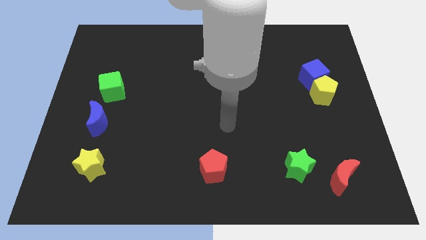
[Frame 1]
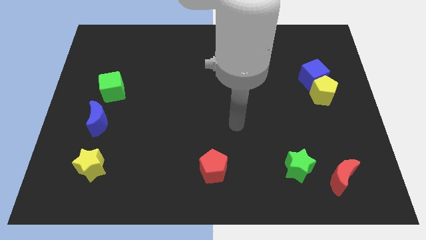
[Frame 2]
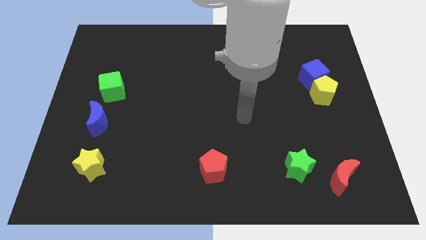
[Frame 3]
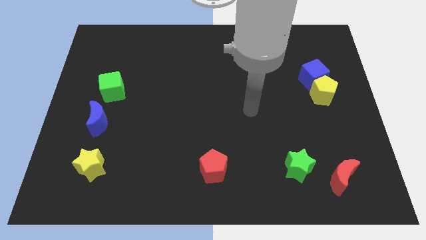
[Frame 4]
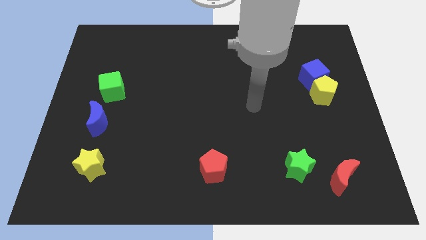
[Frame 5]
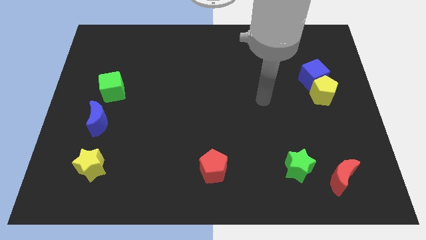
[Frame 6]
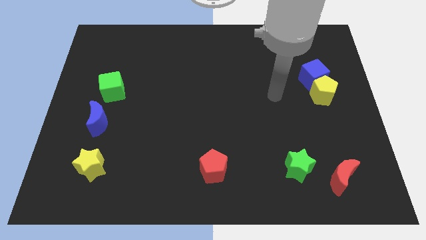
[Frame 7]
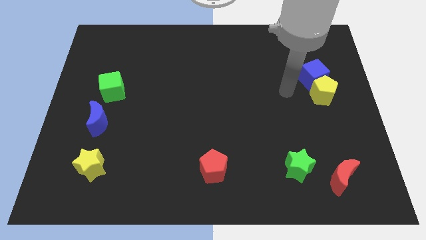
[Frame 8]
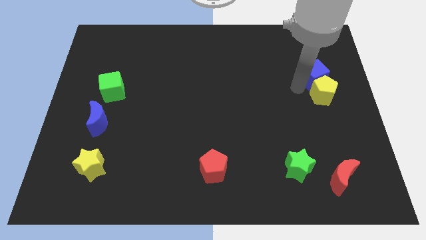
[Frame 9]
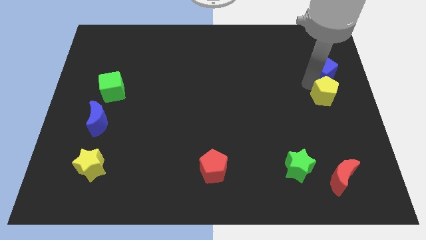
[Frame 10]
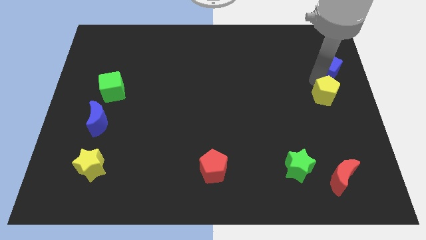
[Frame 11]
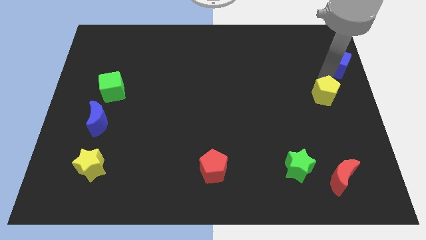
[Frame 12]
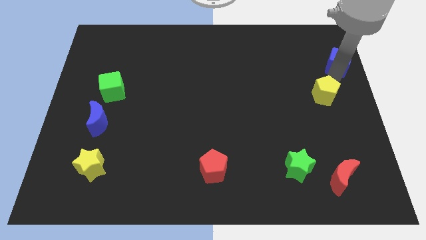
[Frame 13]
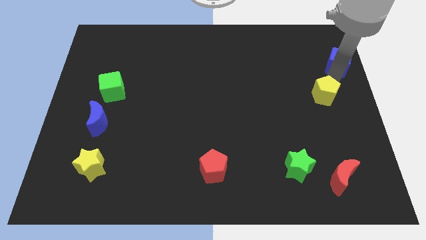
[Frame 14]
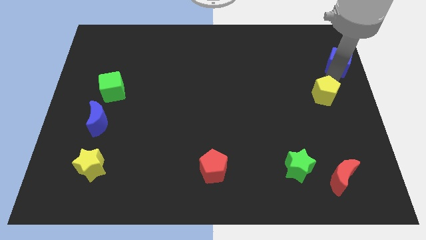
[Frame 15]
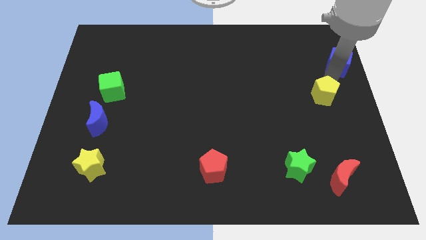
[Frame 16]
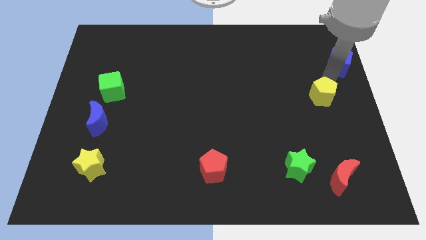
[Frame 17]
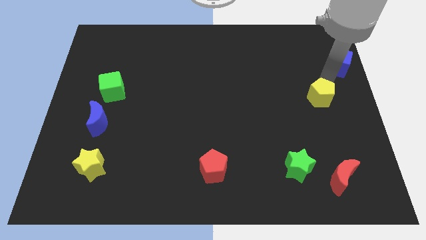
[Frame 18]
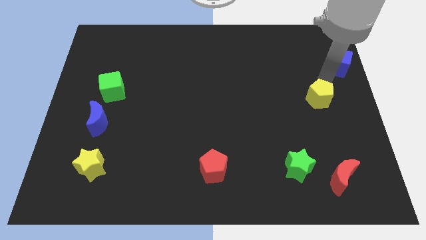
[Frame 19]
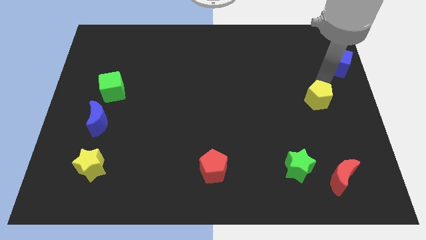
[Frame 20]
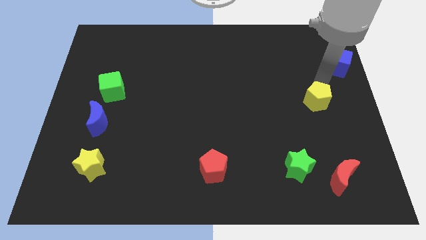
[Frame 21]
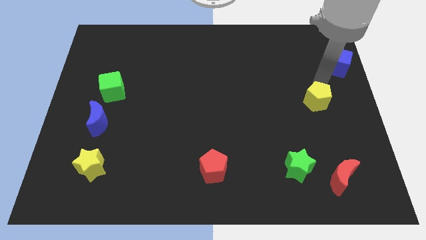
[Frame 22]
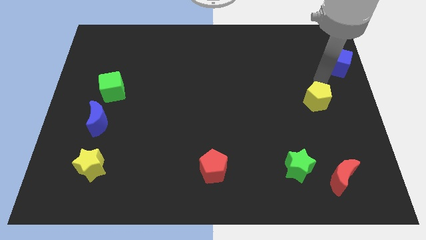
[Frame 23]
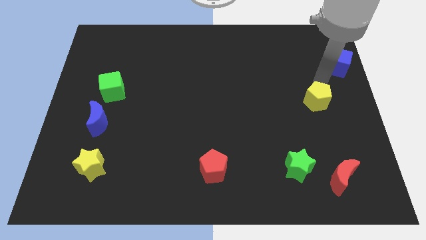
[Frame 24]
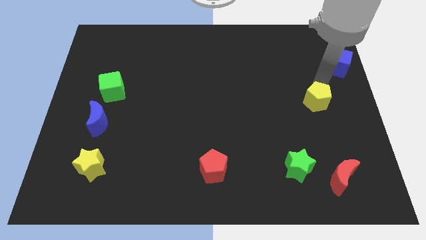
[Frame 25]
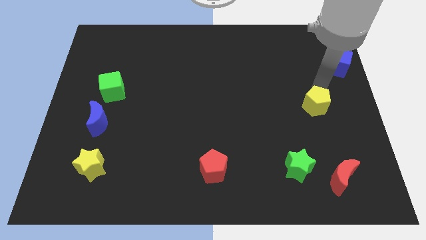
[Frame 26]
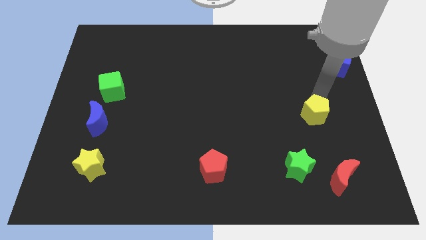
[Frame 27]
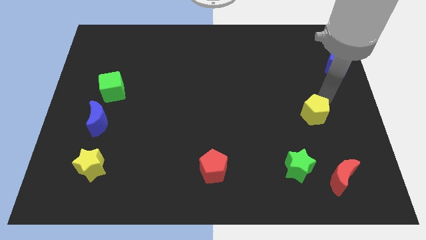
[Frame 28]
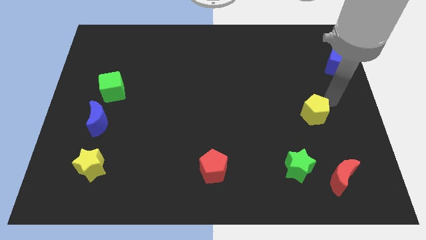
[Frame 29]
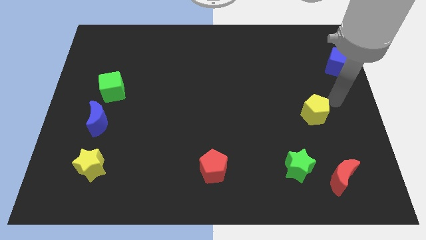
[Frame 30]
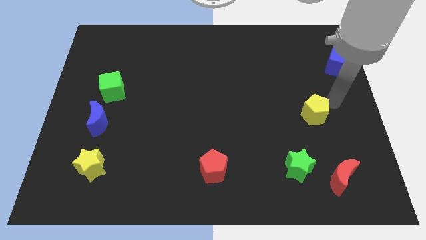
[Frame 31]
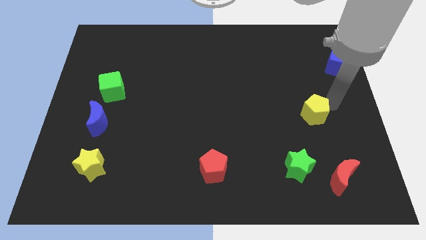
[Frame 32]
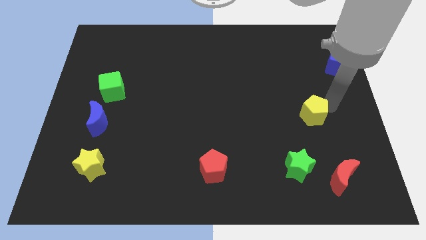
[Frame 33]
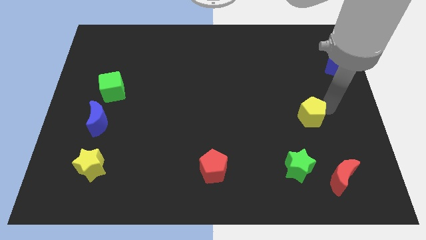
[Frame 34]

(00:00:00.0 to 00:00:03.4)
slightly slide the yellow pentagon diagonally downwards and left

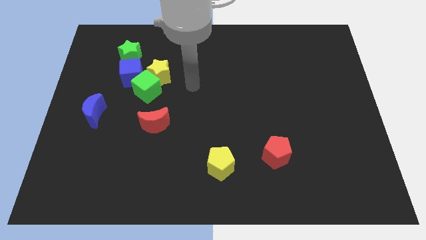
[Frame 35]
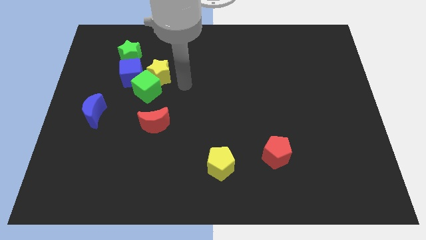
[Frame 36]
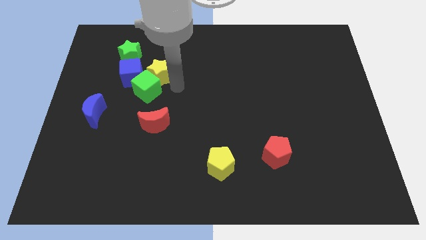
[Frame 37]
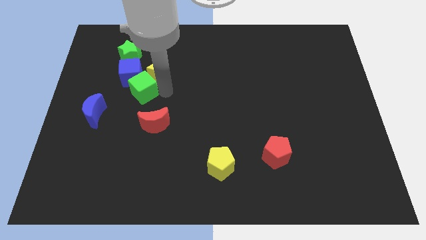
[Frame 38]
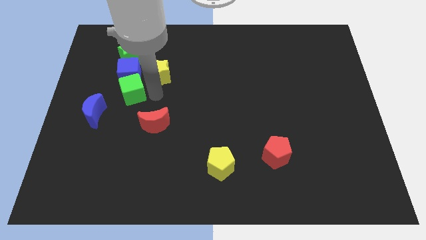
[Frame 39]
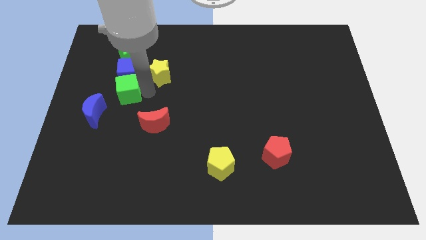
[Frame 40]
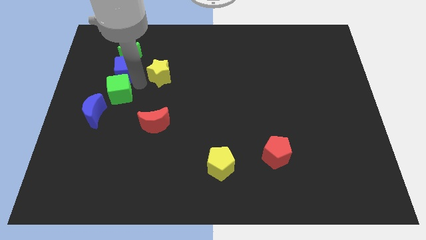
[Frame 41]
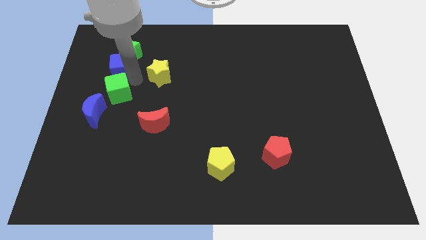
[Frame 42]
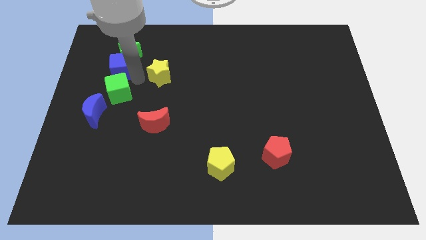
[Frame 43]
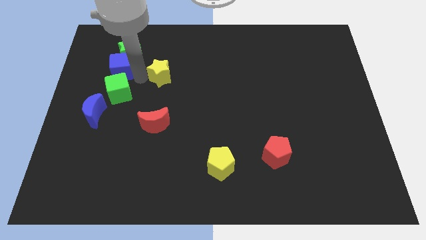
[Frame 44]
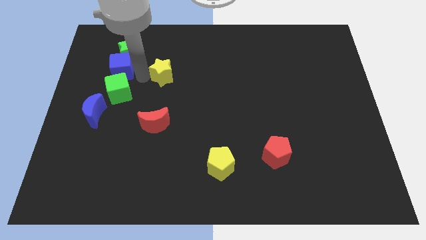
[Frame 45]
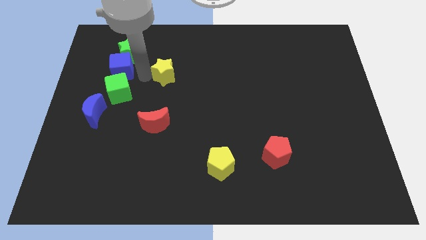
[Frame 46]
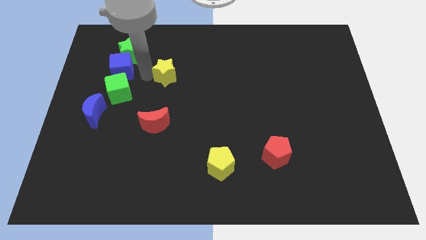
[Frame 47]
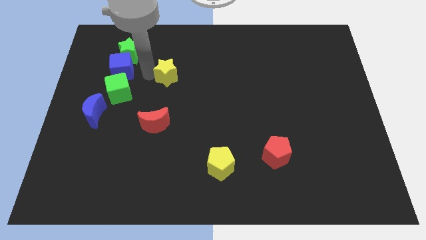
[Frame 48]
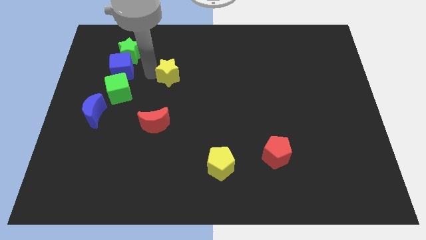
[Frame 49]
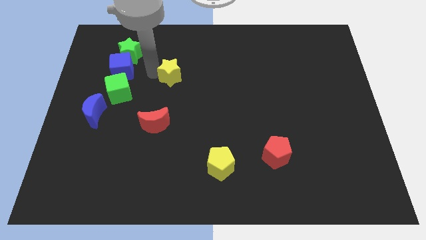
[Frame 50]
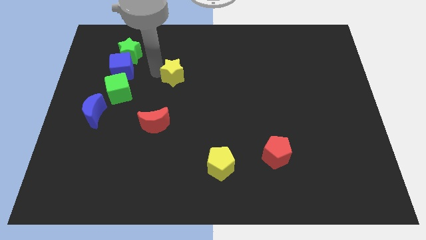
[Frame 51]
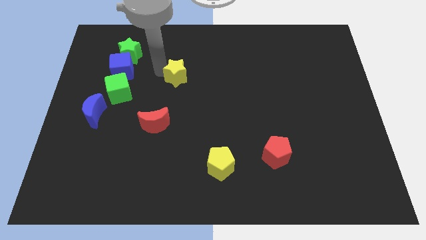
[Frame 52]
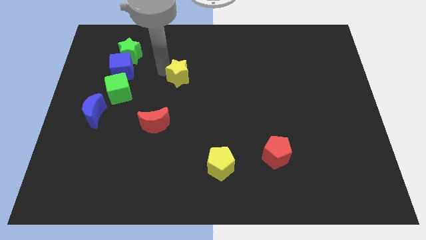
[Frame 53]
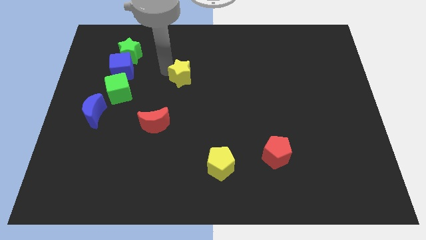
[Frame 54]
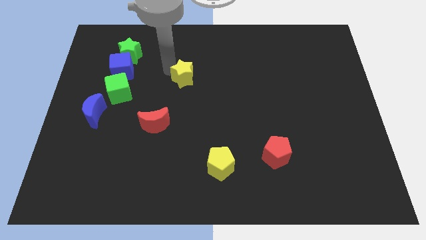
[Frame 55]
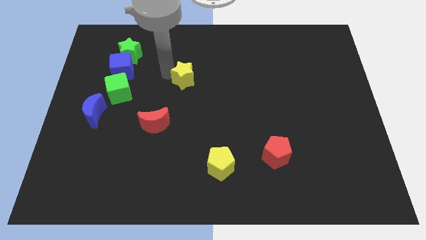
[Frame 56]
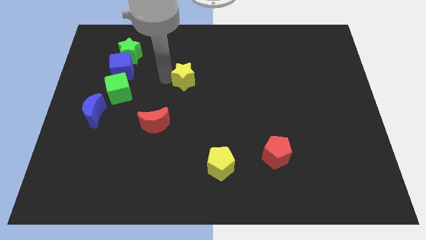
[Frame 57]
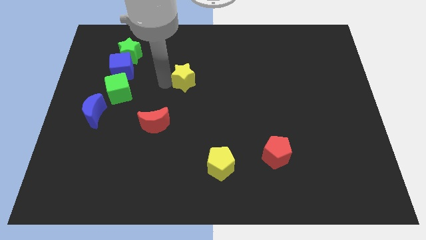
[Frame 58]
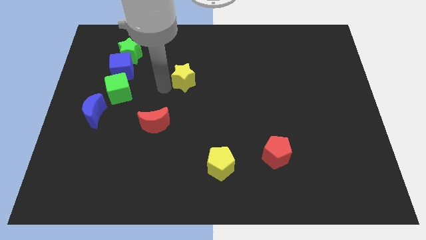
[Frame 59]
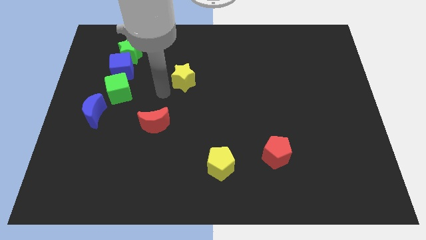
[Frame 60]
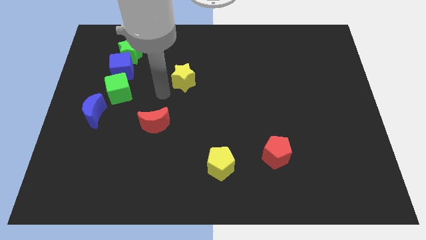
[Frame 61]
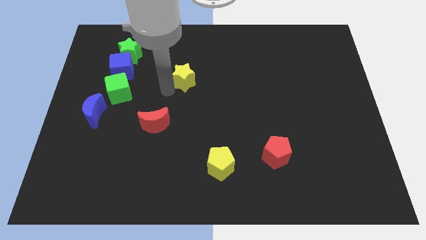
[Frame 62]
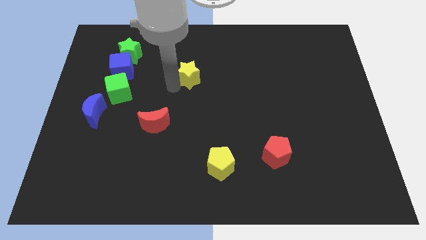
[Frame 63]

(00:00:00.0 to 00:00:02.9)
push the yellow star right a little

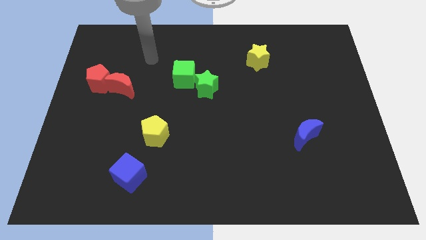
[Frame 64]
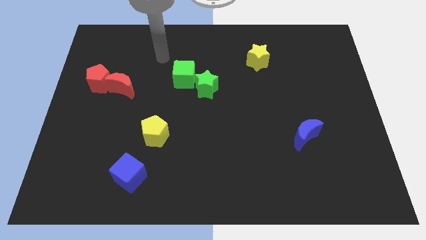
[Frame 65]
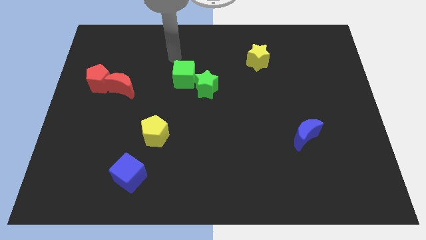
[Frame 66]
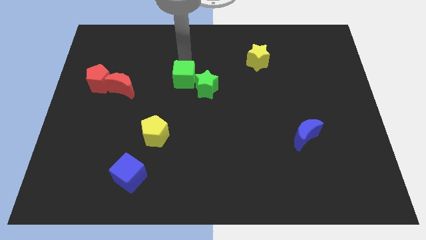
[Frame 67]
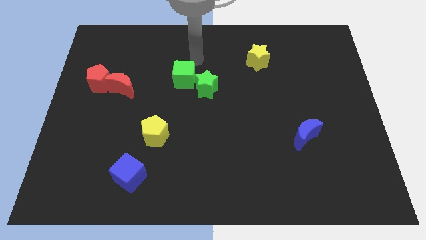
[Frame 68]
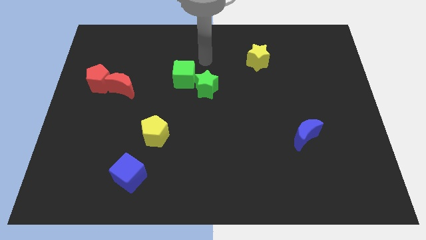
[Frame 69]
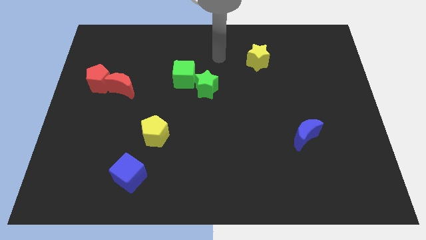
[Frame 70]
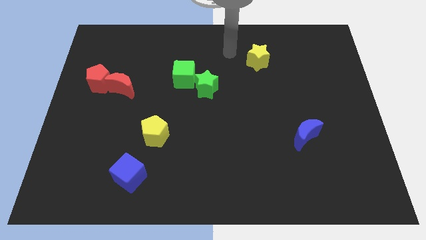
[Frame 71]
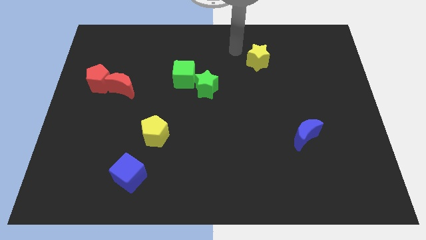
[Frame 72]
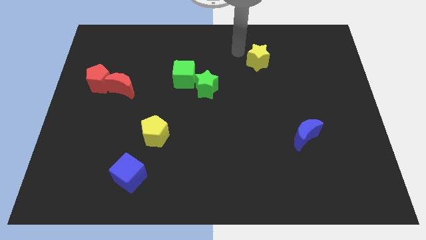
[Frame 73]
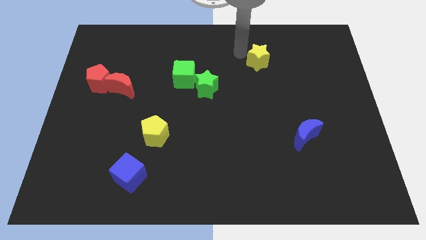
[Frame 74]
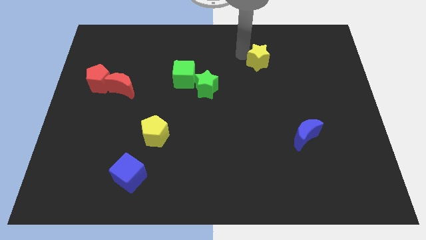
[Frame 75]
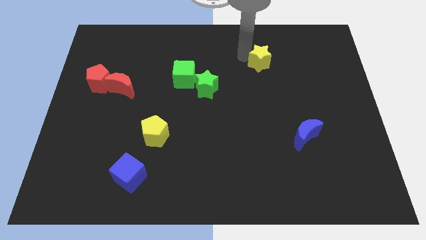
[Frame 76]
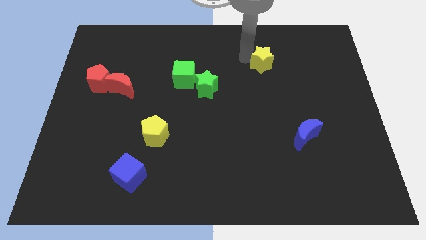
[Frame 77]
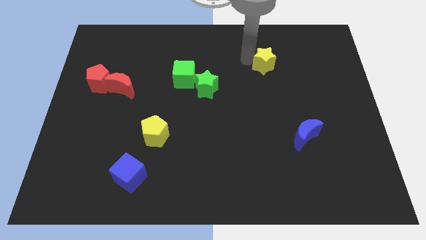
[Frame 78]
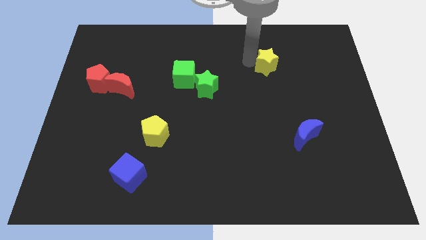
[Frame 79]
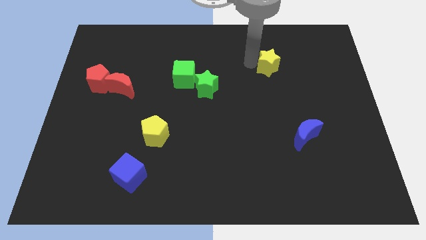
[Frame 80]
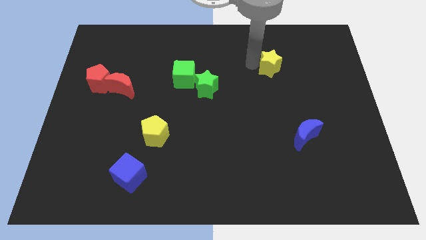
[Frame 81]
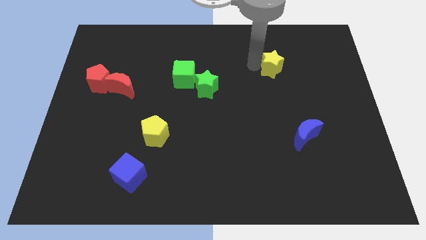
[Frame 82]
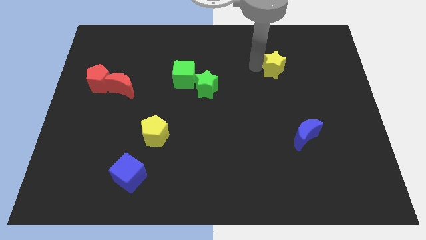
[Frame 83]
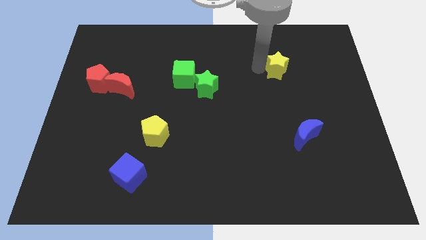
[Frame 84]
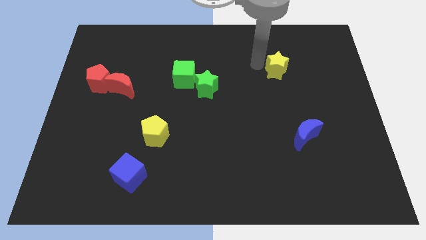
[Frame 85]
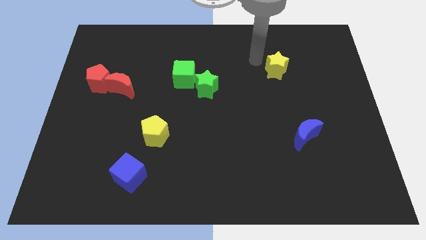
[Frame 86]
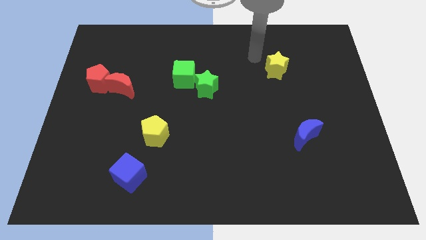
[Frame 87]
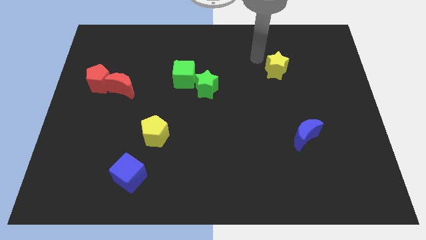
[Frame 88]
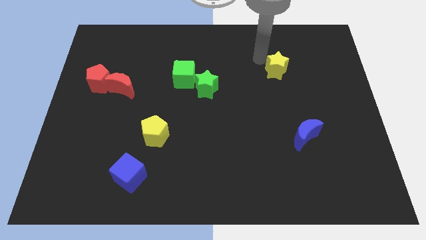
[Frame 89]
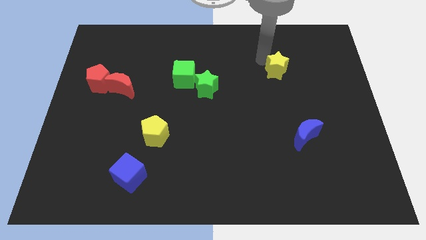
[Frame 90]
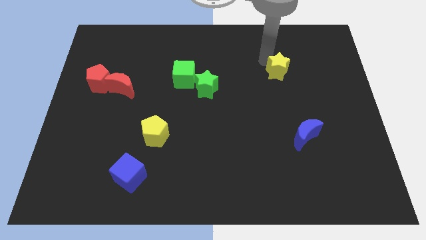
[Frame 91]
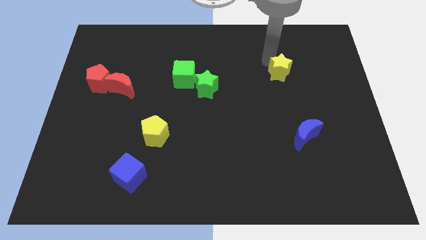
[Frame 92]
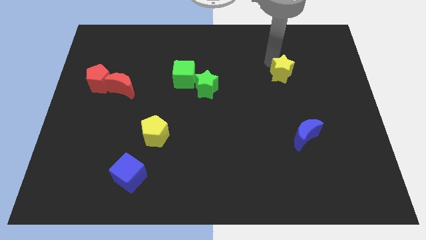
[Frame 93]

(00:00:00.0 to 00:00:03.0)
push the yellow star a bit downwards and then right
